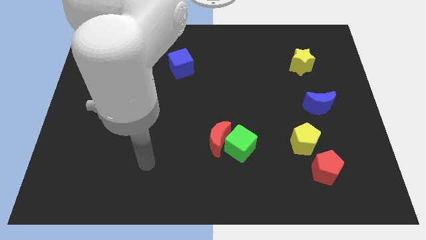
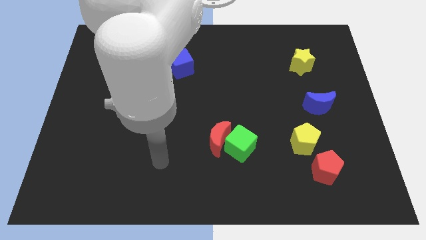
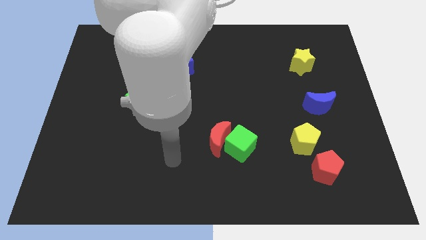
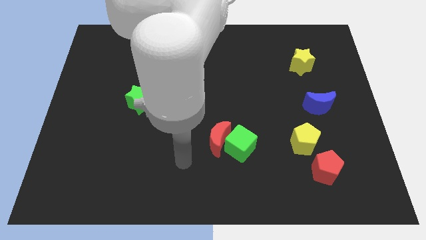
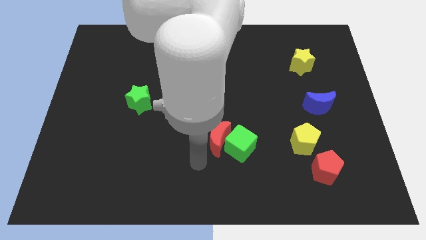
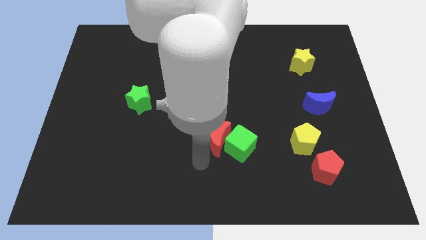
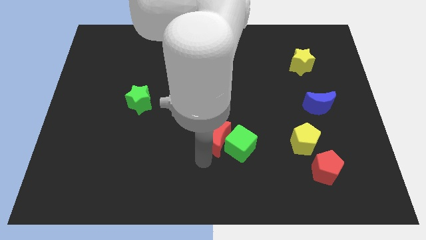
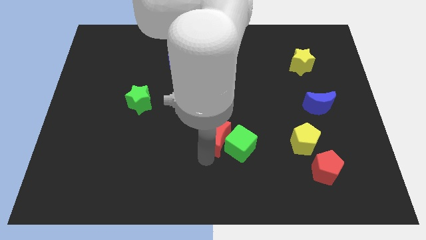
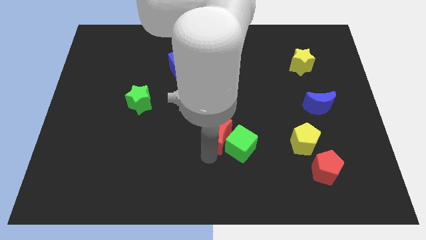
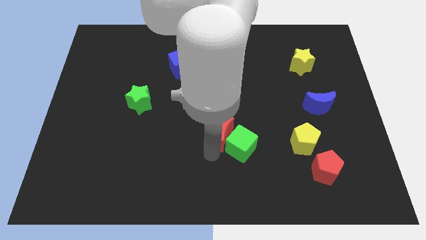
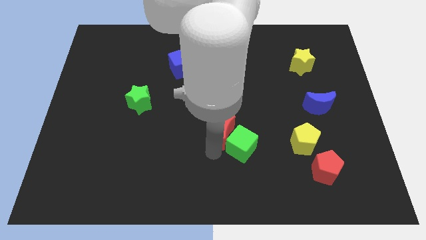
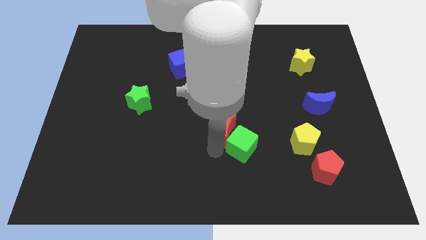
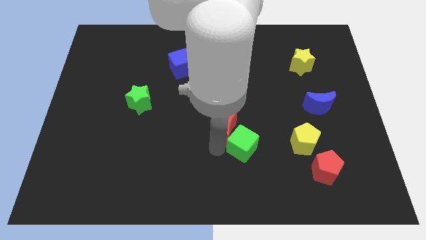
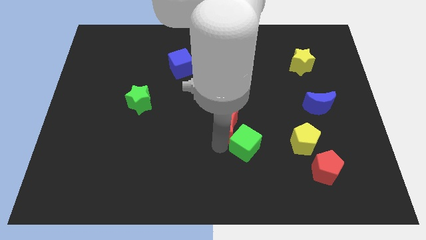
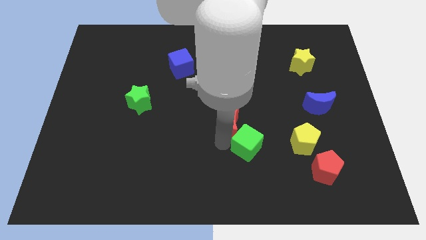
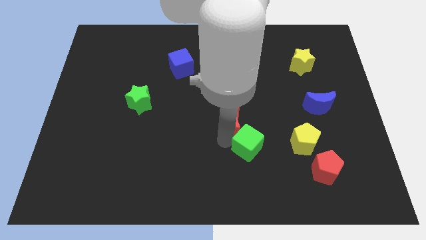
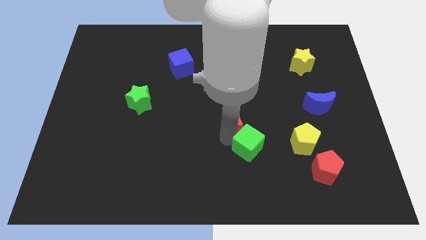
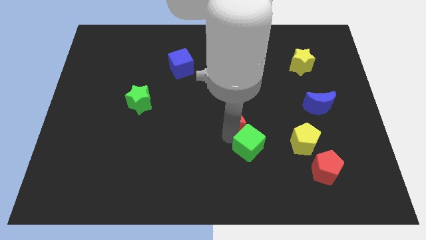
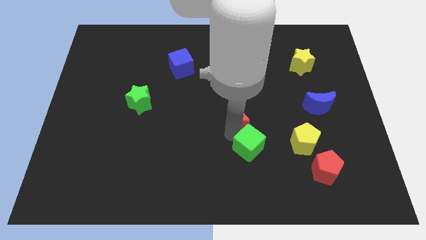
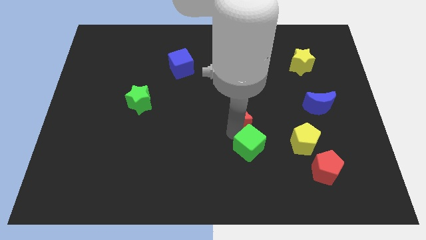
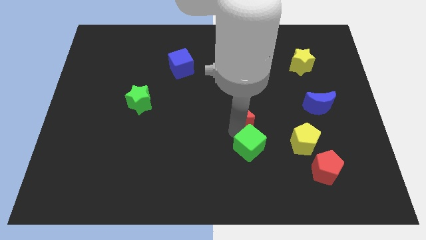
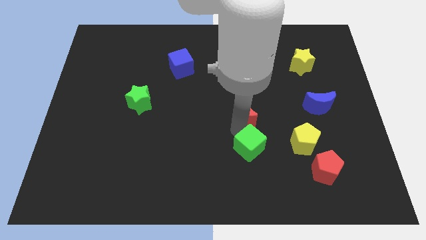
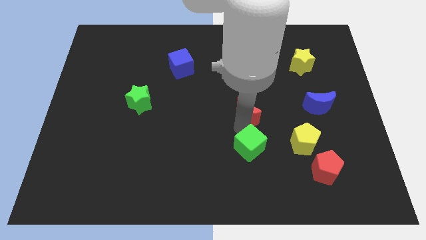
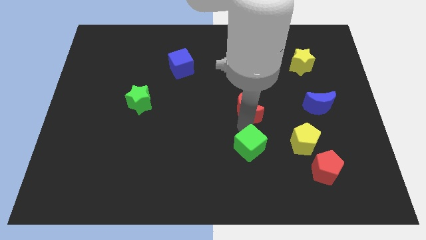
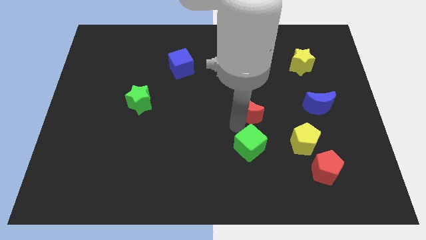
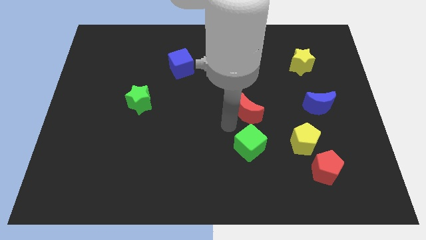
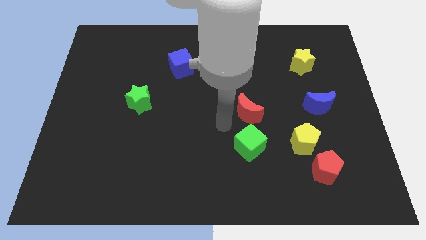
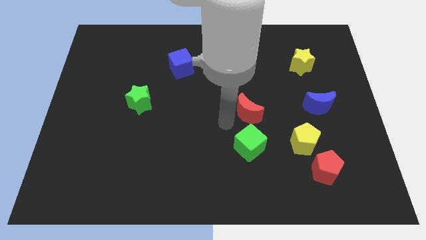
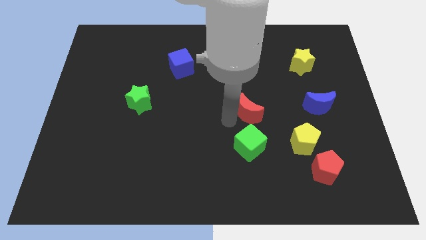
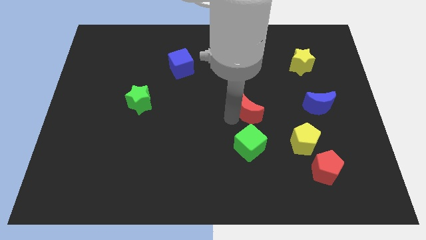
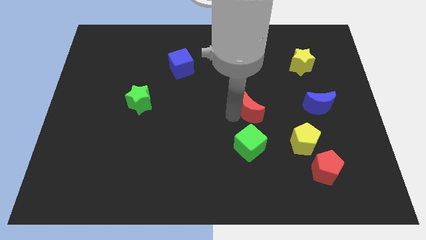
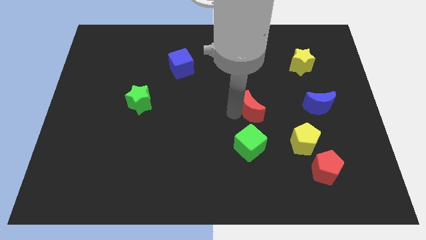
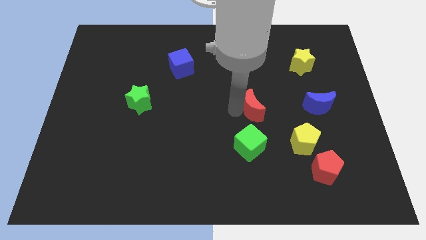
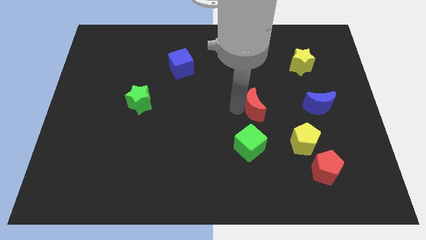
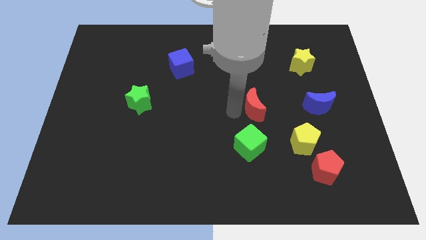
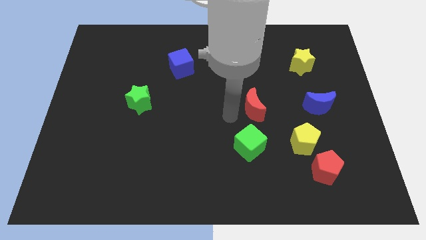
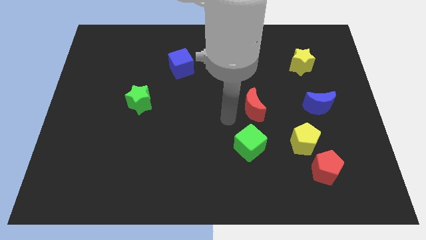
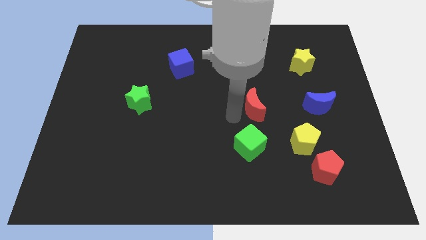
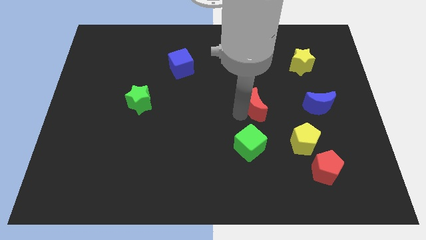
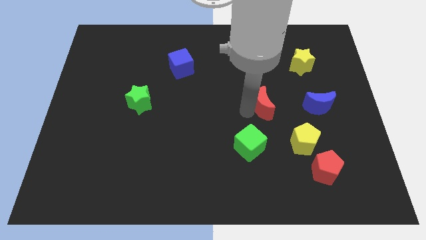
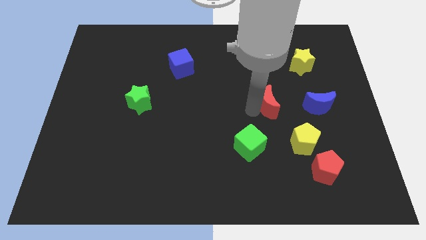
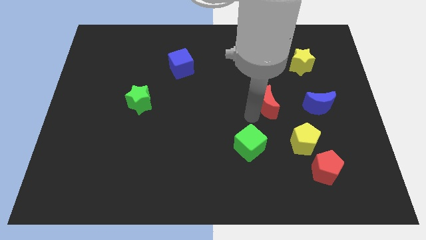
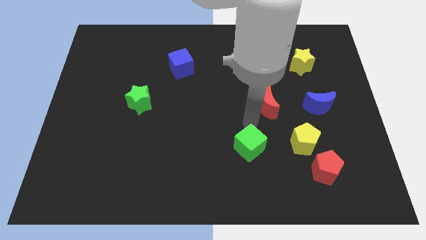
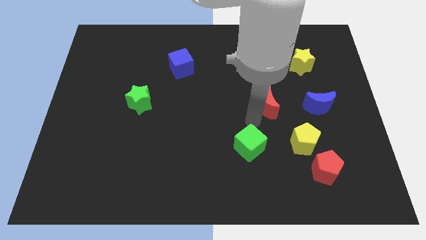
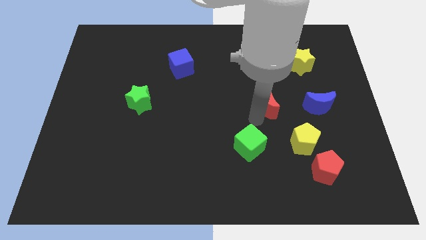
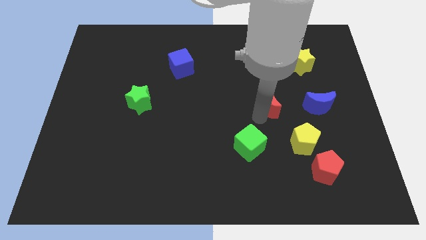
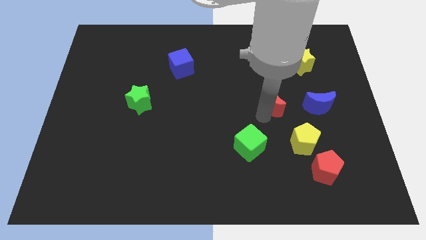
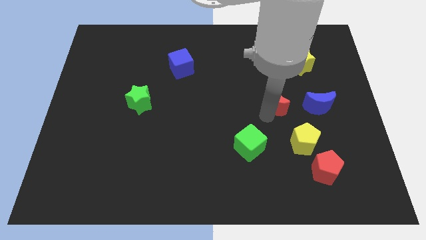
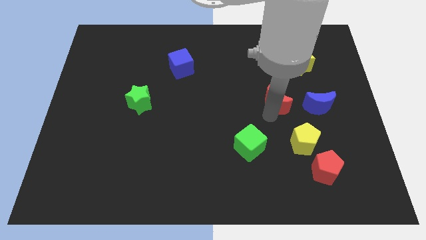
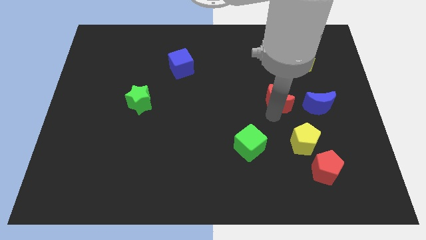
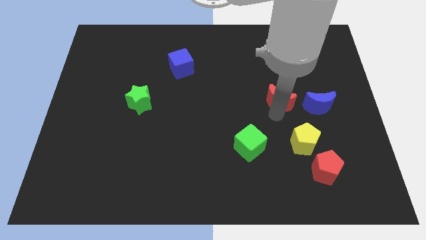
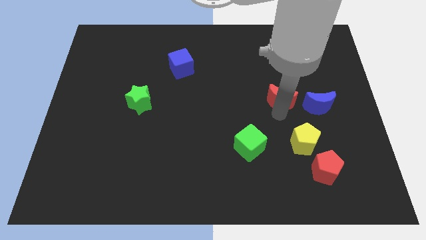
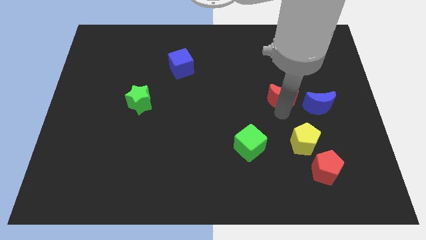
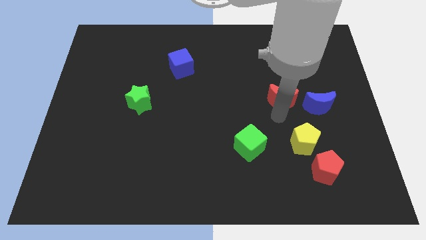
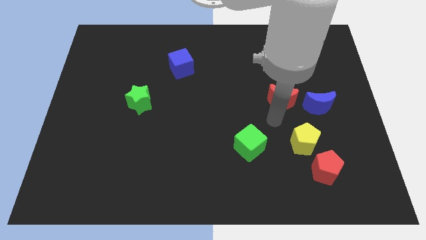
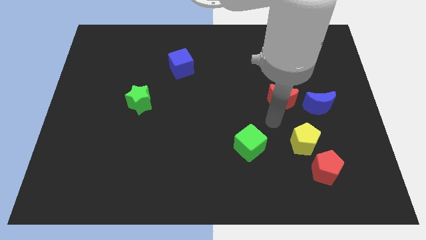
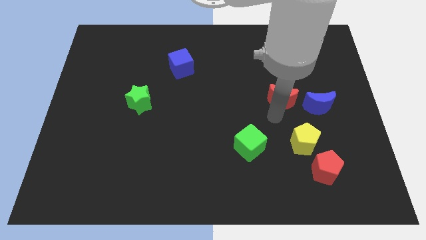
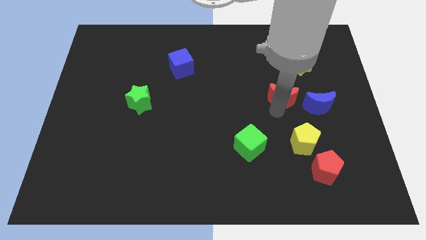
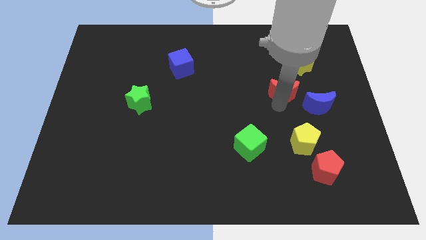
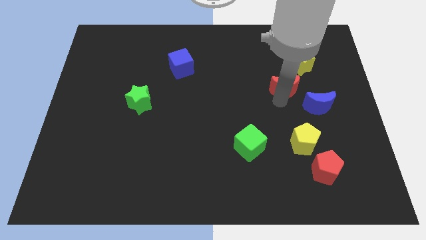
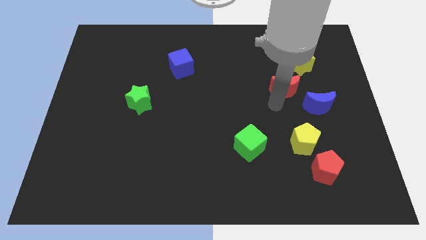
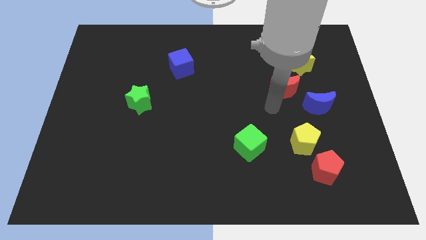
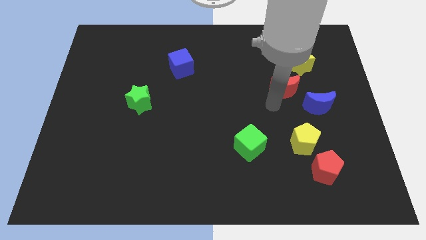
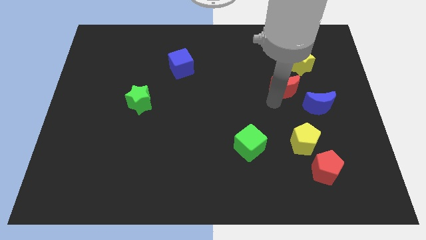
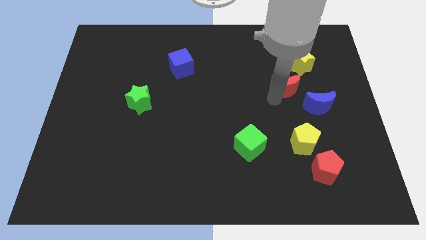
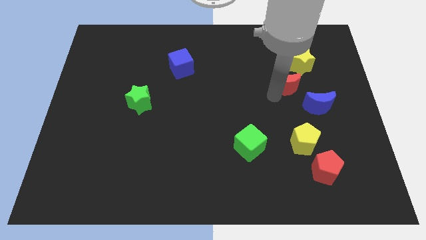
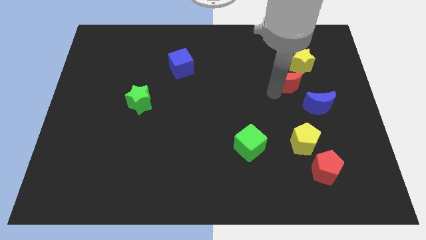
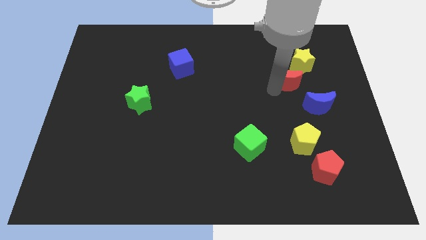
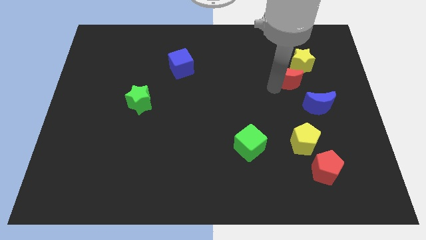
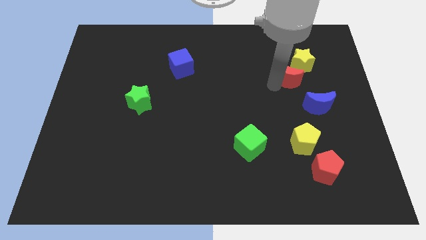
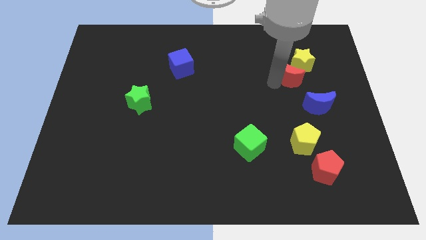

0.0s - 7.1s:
move the red moon towards the yellow star

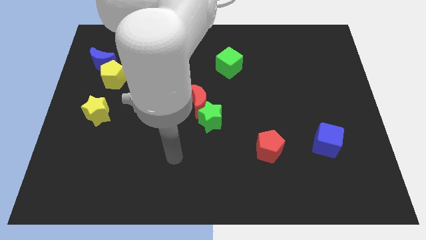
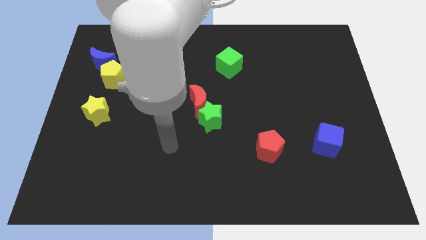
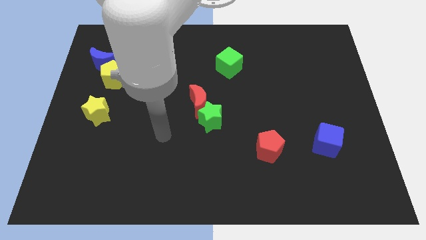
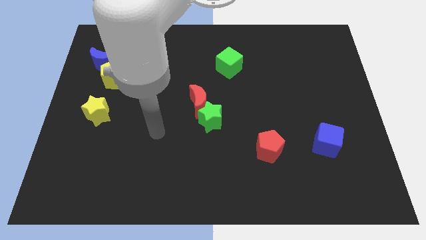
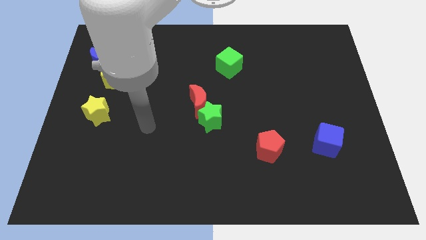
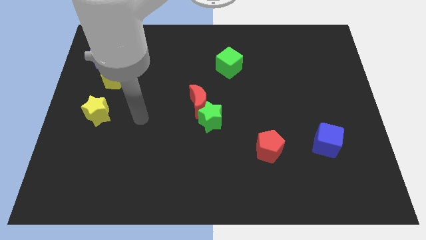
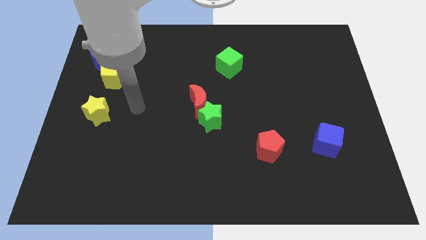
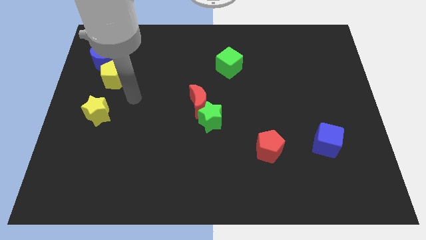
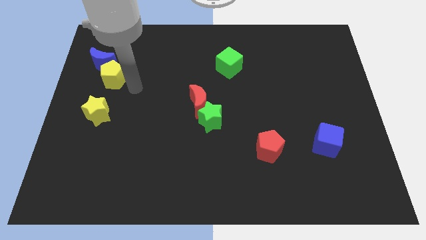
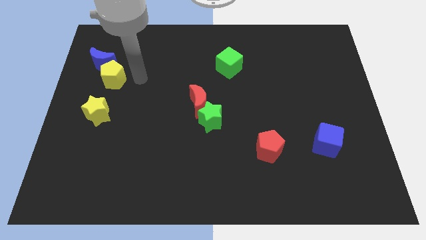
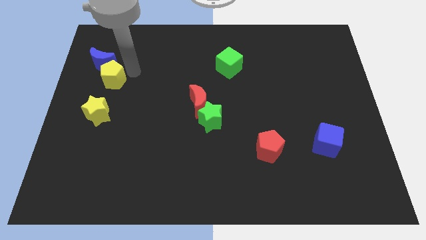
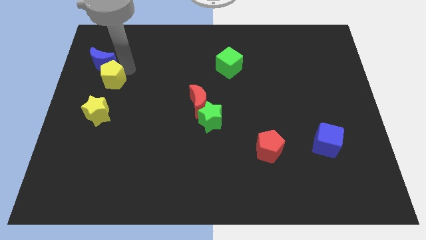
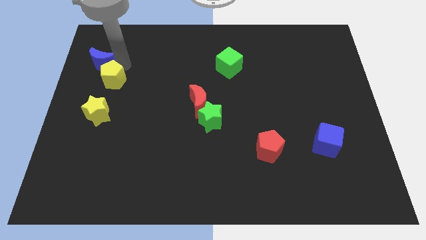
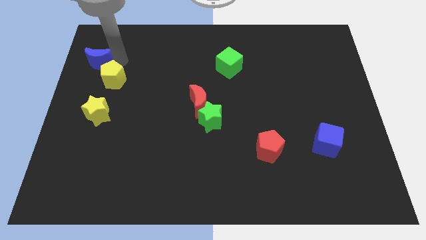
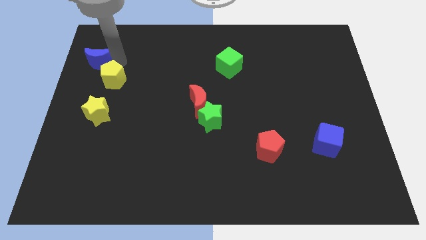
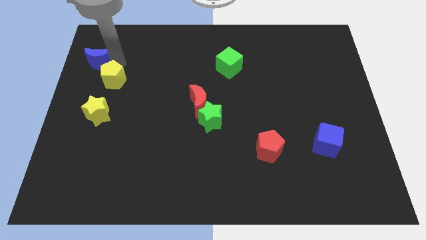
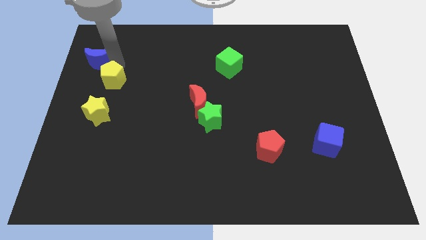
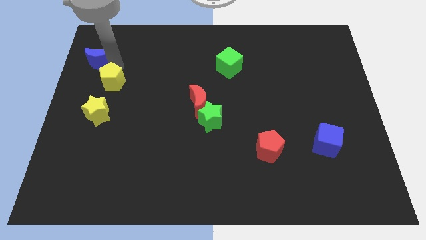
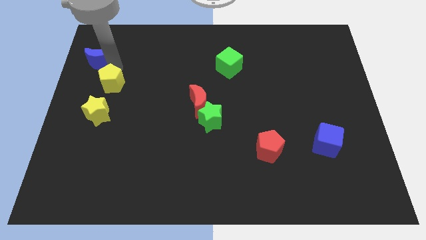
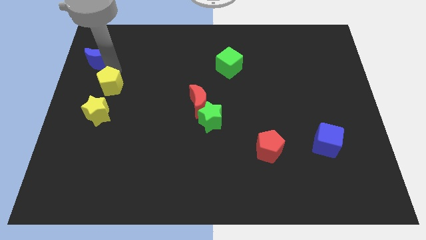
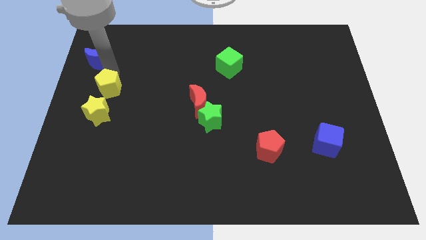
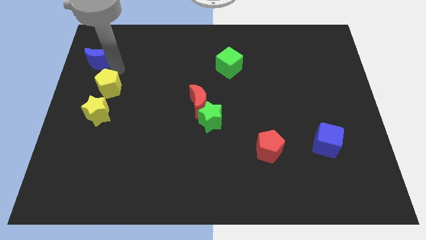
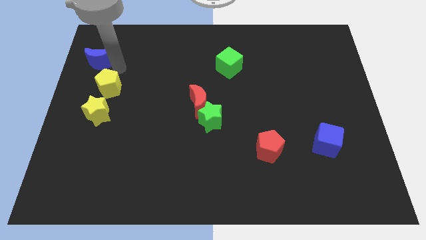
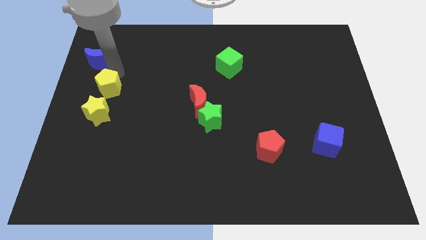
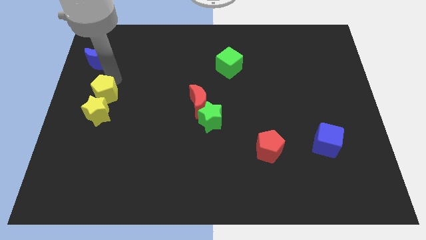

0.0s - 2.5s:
slide the yellow pentagon next to the yellow star
